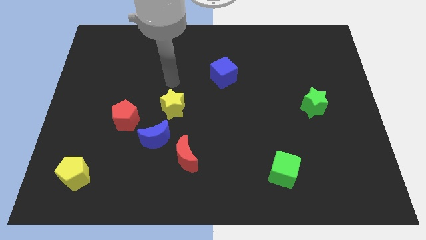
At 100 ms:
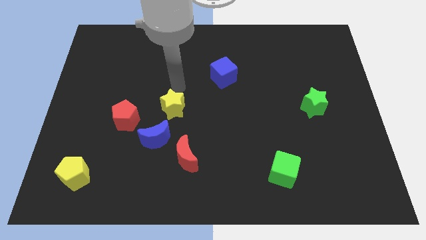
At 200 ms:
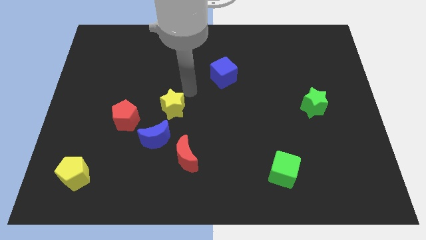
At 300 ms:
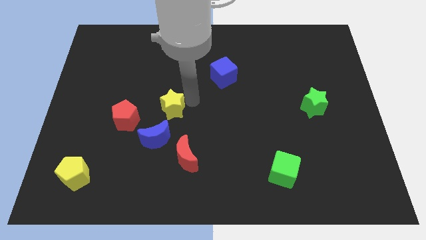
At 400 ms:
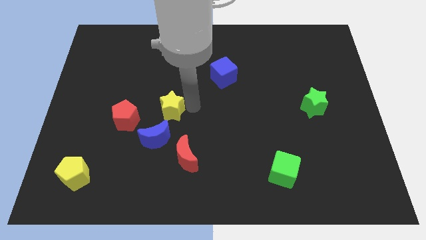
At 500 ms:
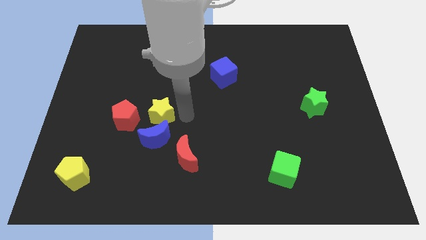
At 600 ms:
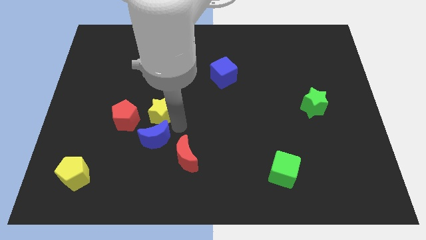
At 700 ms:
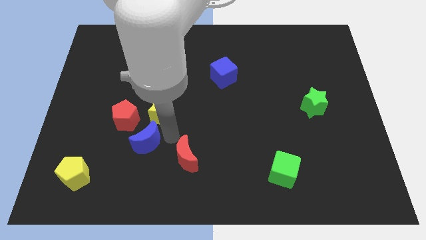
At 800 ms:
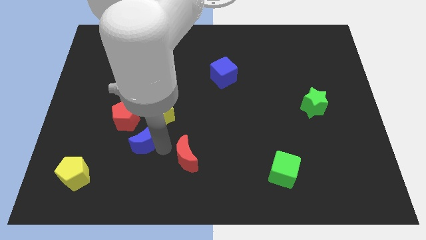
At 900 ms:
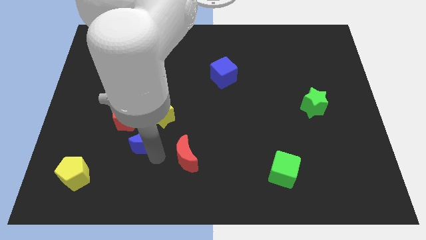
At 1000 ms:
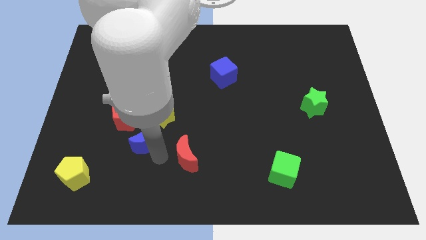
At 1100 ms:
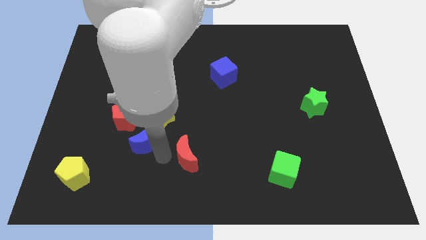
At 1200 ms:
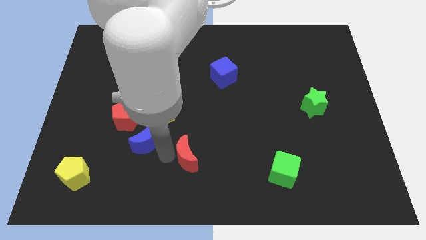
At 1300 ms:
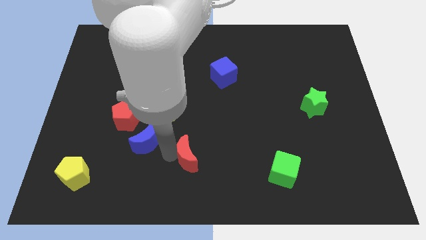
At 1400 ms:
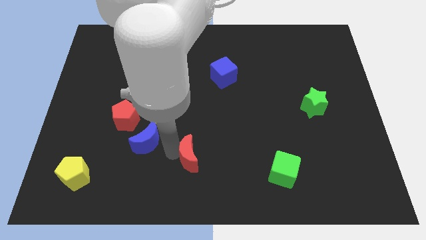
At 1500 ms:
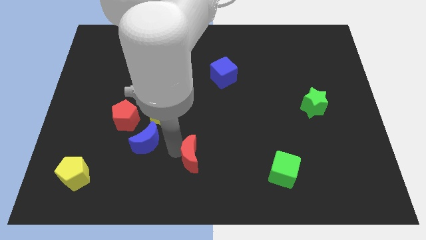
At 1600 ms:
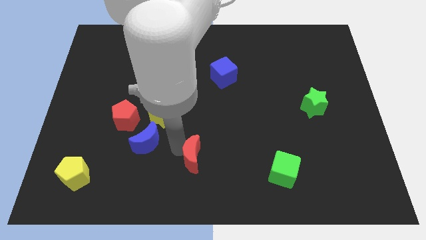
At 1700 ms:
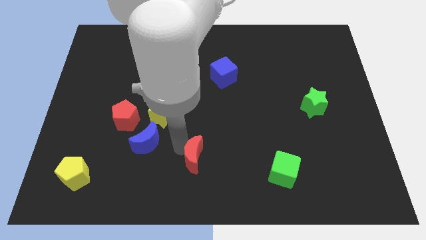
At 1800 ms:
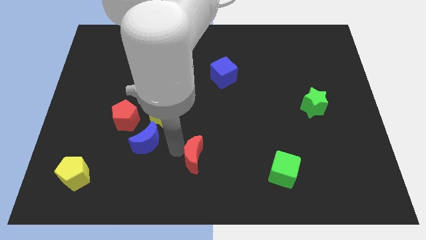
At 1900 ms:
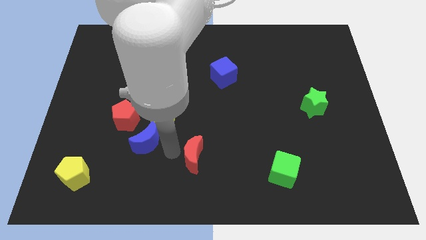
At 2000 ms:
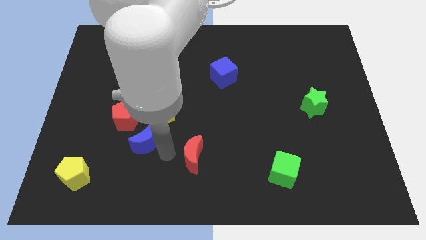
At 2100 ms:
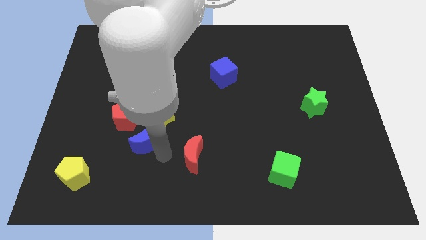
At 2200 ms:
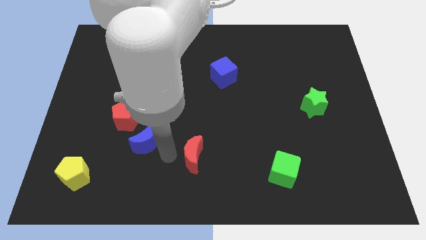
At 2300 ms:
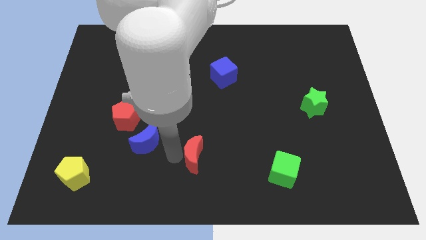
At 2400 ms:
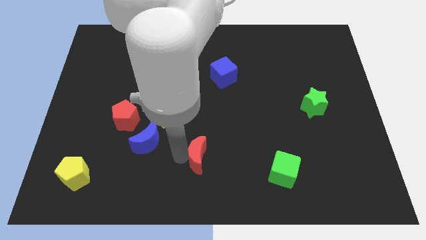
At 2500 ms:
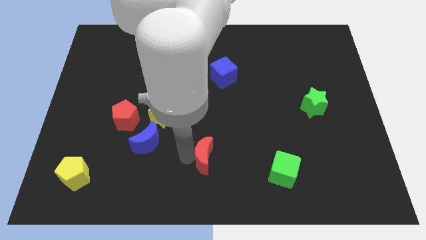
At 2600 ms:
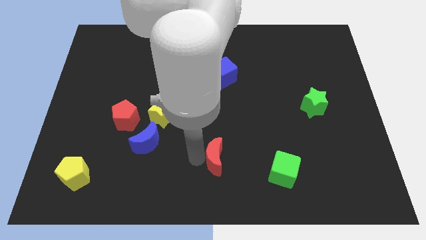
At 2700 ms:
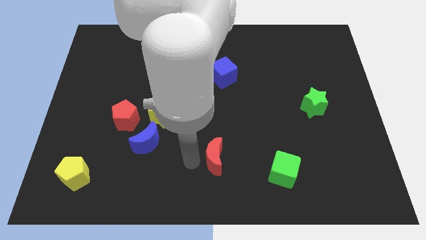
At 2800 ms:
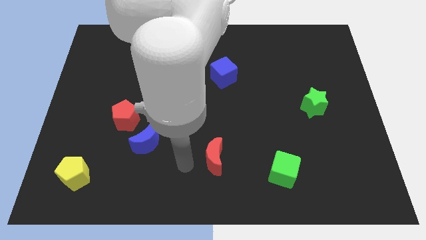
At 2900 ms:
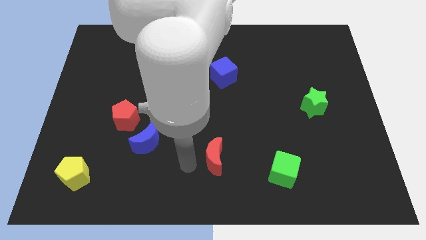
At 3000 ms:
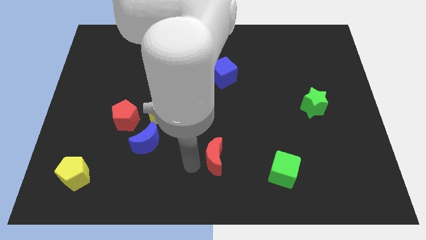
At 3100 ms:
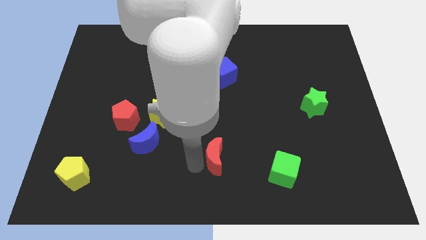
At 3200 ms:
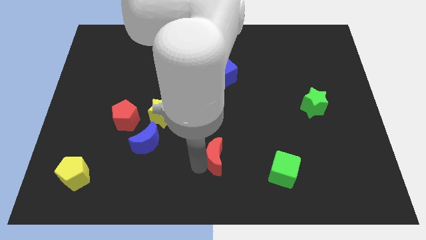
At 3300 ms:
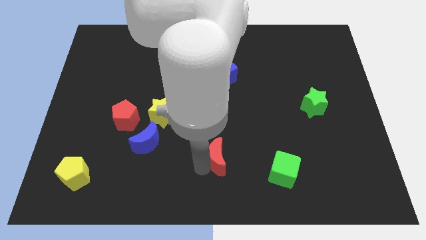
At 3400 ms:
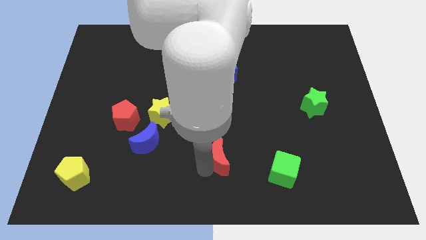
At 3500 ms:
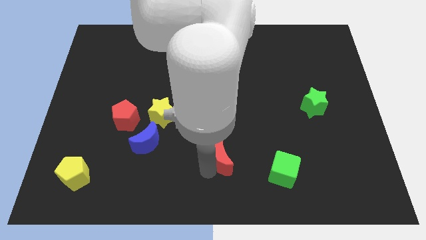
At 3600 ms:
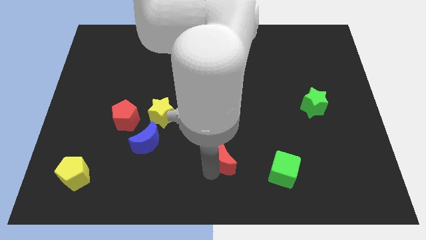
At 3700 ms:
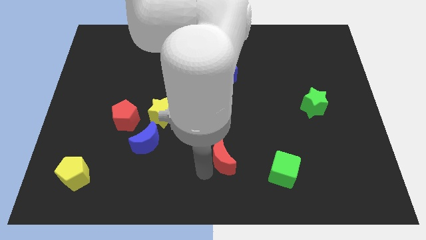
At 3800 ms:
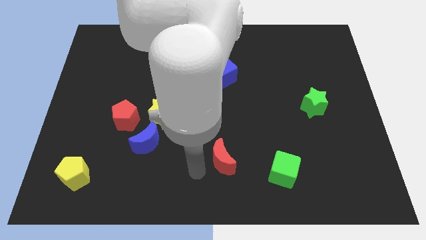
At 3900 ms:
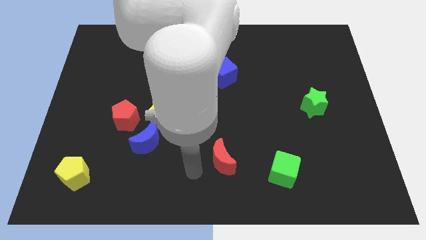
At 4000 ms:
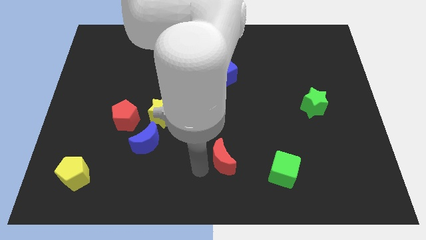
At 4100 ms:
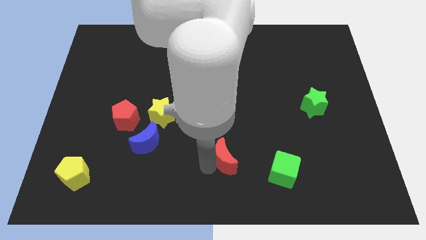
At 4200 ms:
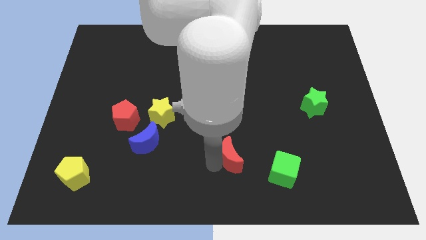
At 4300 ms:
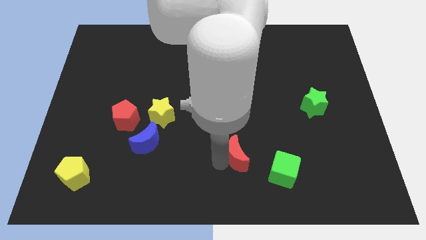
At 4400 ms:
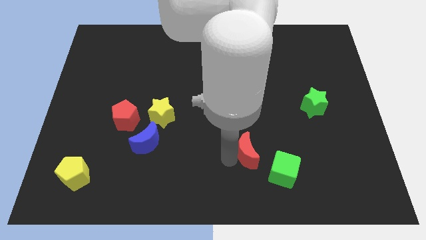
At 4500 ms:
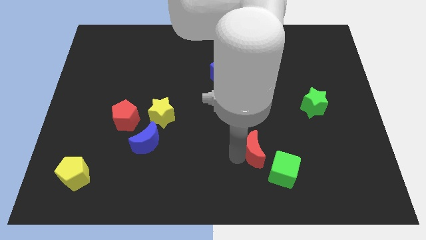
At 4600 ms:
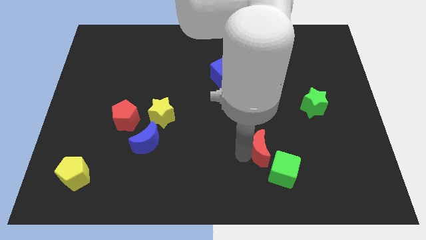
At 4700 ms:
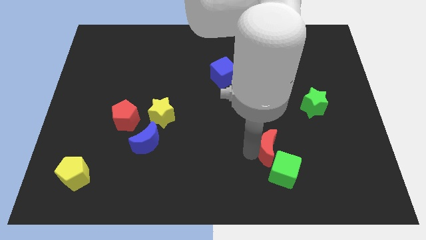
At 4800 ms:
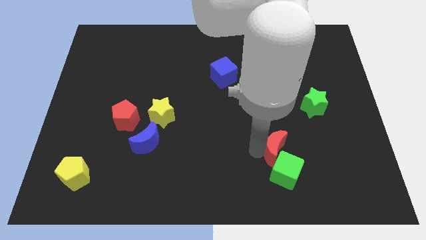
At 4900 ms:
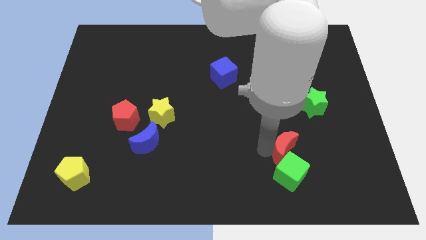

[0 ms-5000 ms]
push the red moon to the right

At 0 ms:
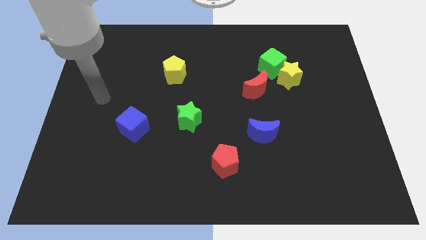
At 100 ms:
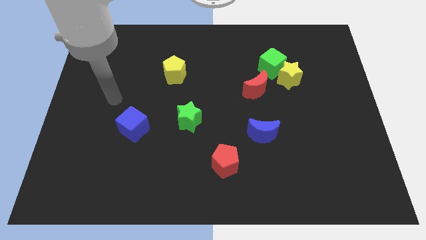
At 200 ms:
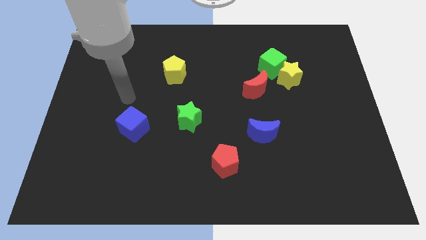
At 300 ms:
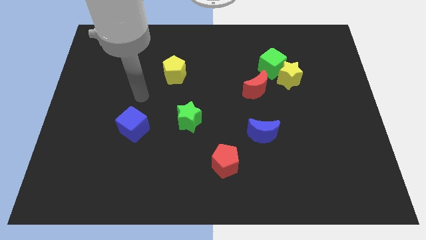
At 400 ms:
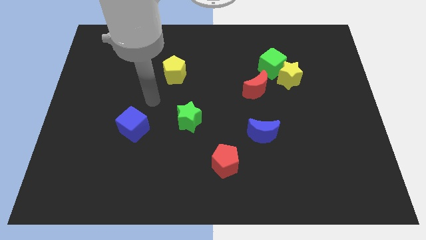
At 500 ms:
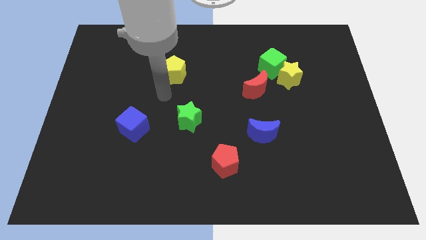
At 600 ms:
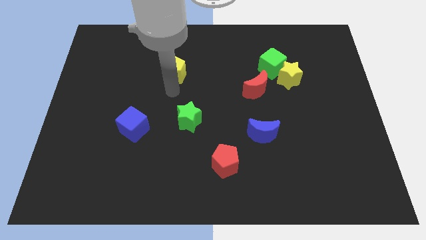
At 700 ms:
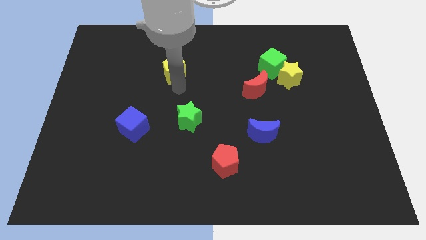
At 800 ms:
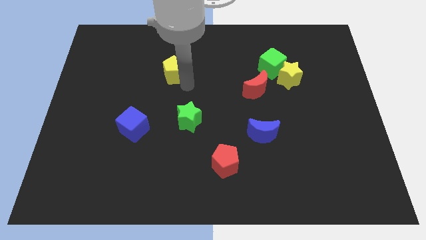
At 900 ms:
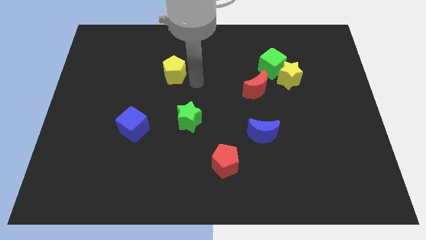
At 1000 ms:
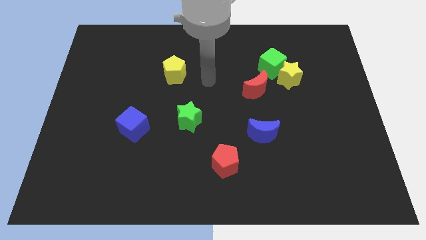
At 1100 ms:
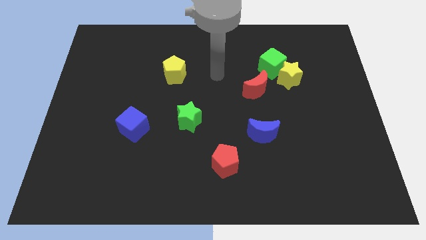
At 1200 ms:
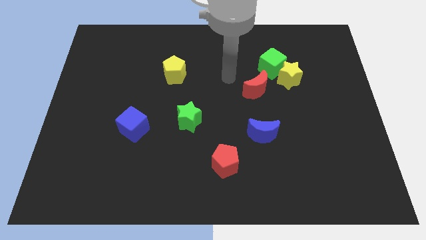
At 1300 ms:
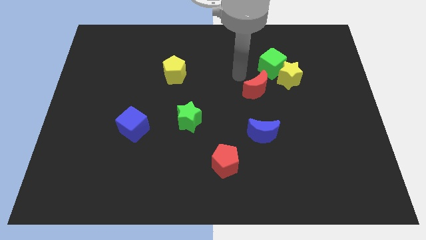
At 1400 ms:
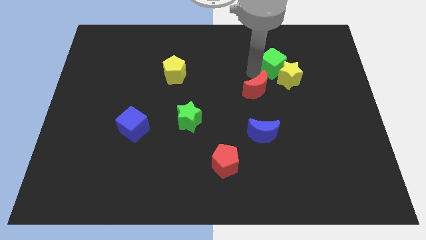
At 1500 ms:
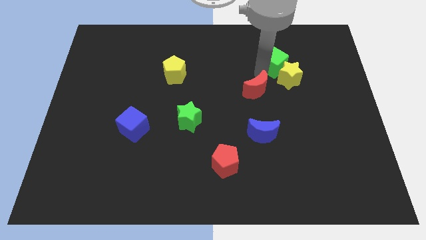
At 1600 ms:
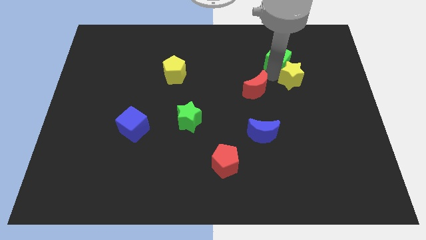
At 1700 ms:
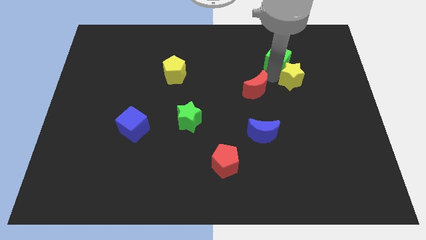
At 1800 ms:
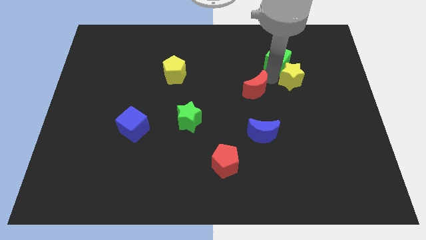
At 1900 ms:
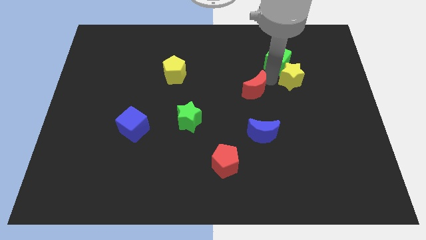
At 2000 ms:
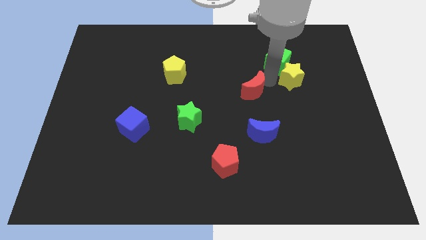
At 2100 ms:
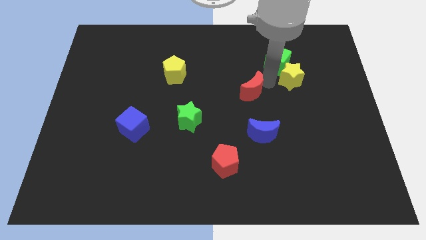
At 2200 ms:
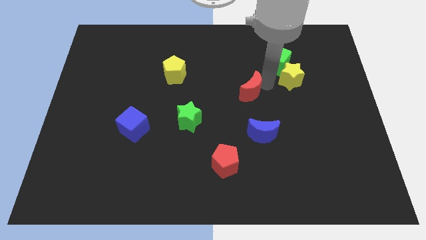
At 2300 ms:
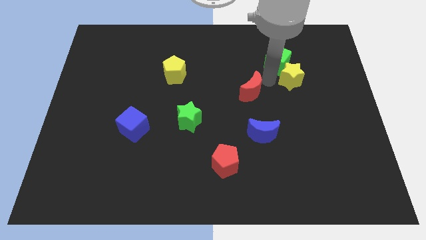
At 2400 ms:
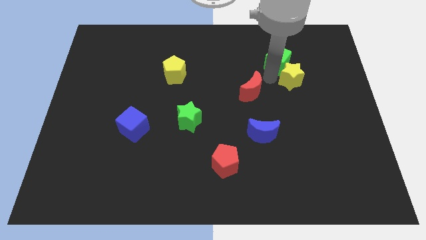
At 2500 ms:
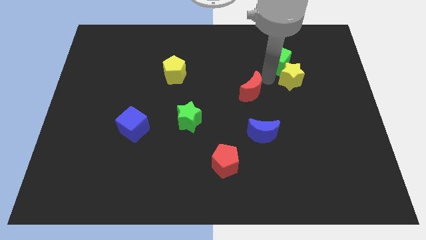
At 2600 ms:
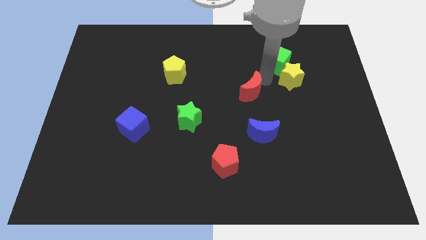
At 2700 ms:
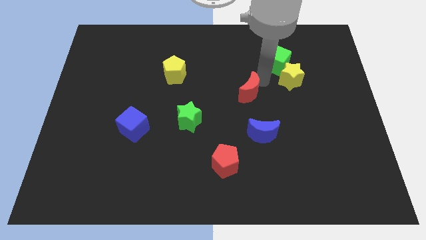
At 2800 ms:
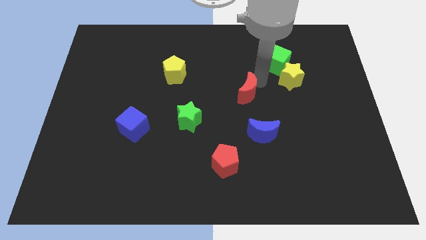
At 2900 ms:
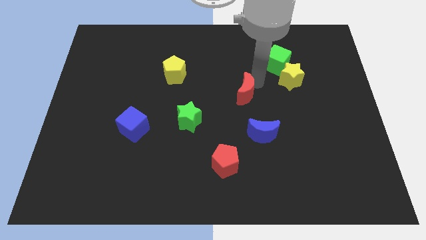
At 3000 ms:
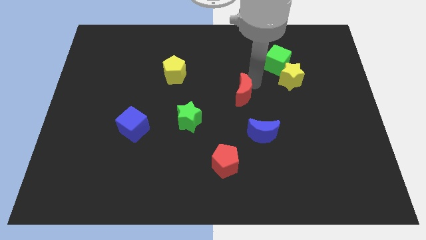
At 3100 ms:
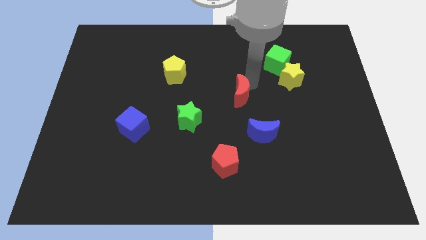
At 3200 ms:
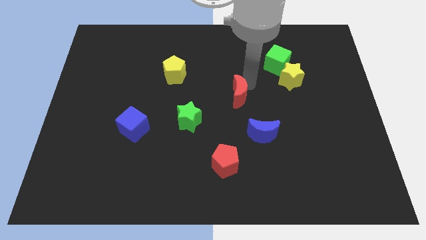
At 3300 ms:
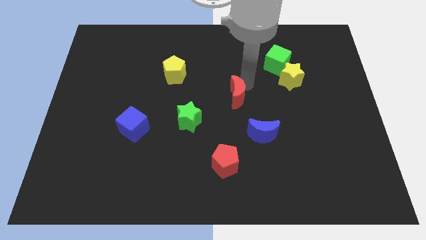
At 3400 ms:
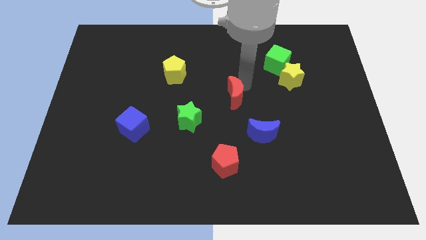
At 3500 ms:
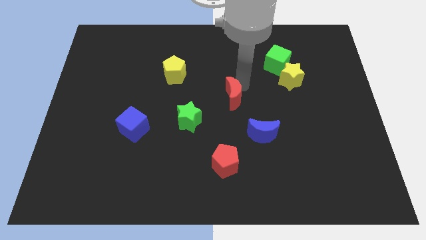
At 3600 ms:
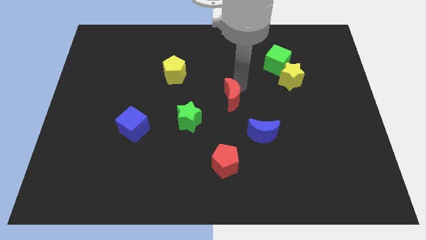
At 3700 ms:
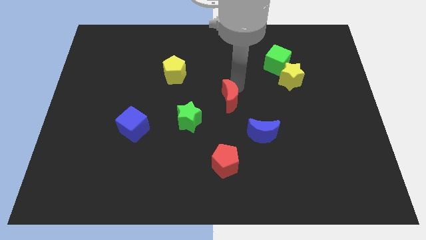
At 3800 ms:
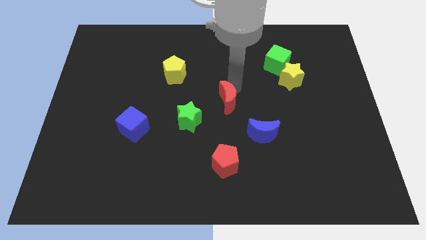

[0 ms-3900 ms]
move the red moon down and left a little bit
